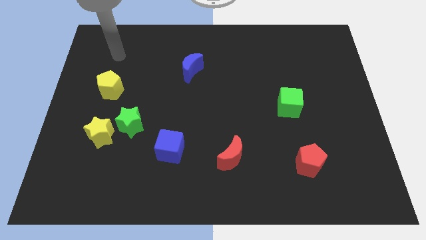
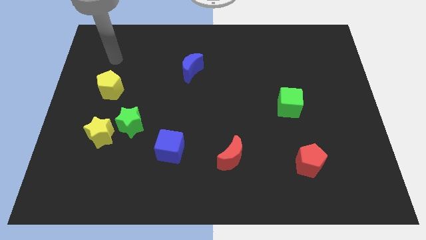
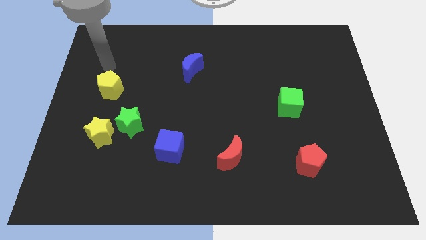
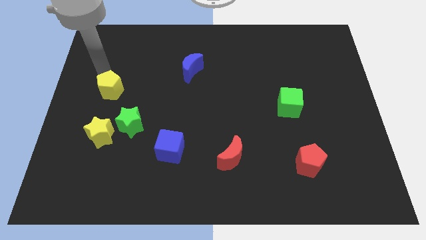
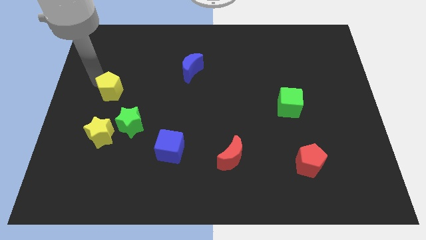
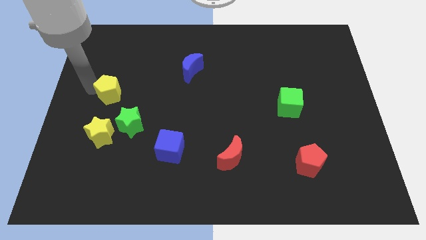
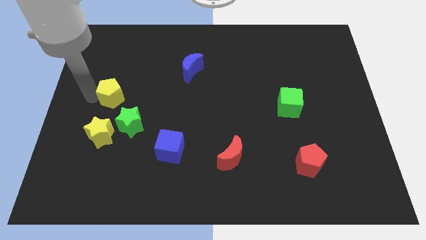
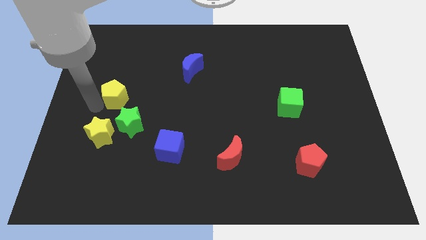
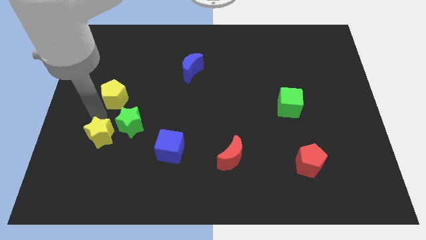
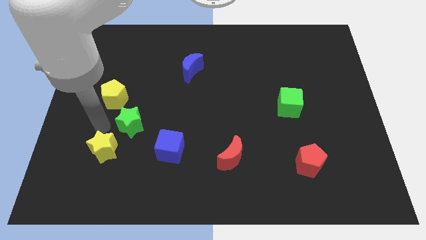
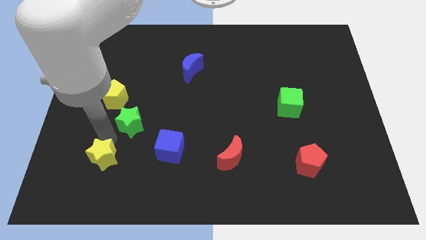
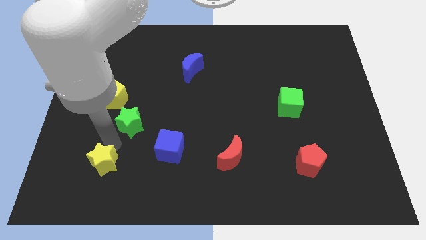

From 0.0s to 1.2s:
move the green star away from the yellow star

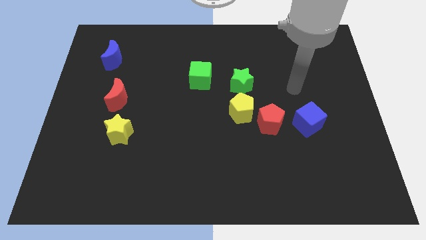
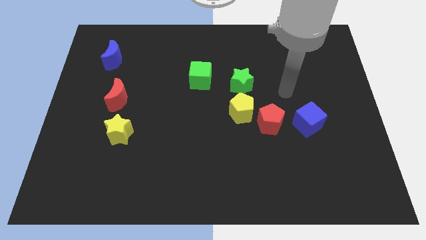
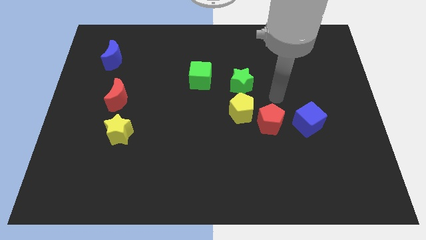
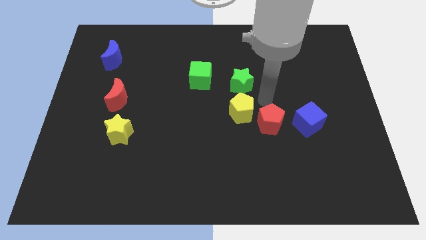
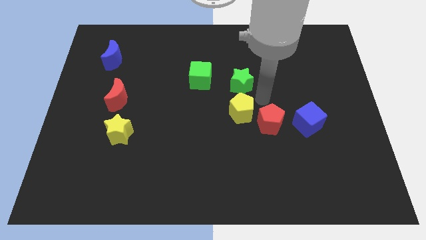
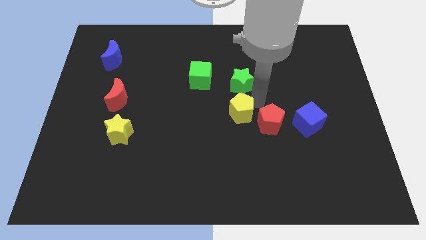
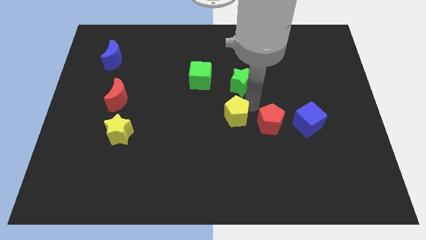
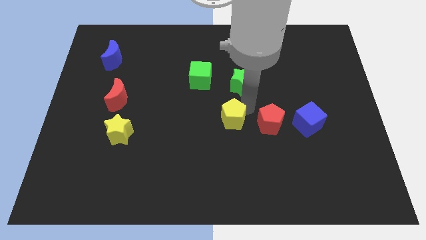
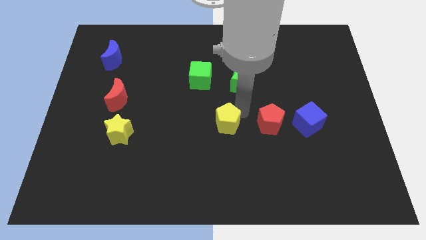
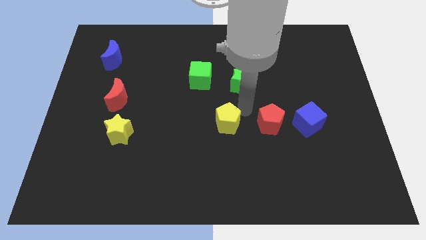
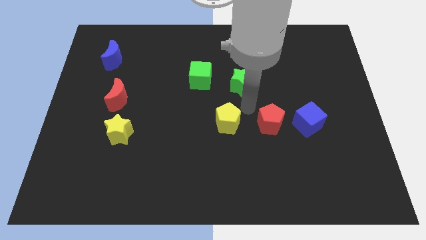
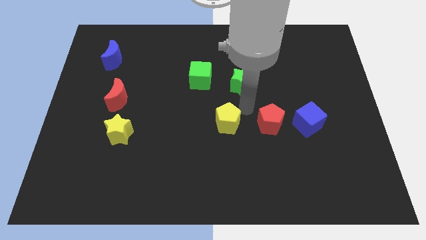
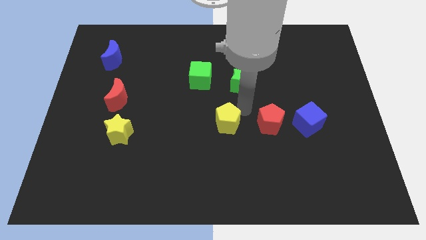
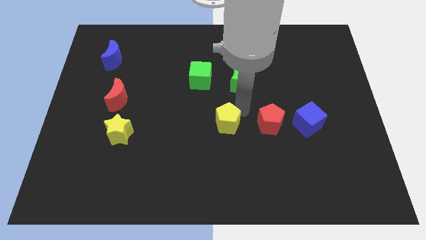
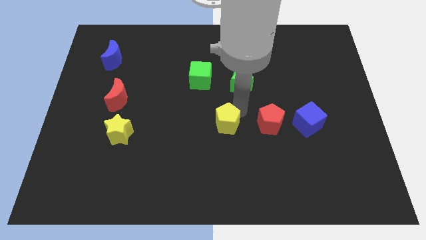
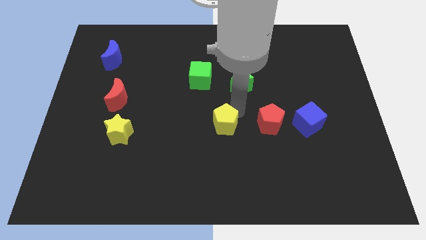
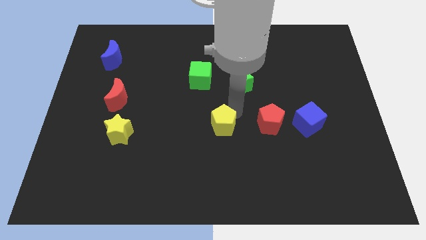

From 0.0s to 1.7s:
separate the yellow pentagon from the red pentagon and green star

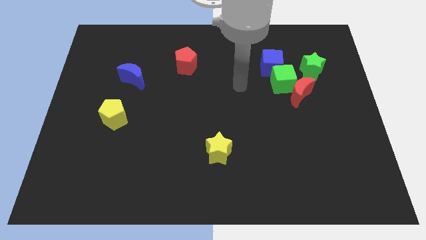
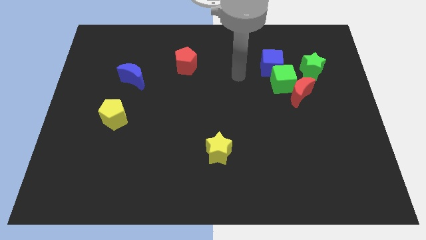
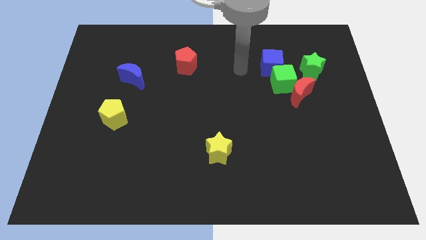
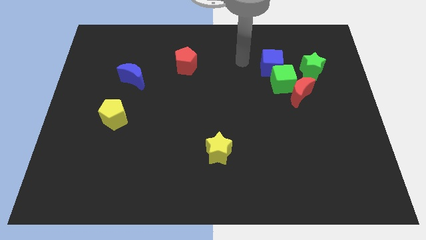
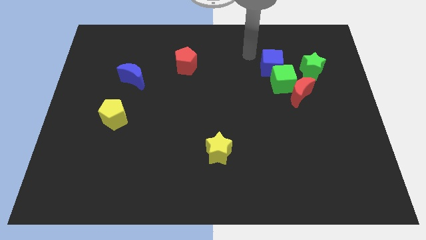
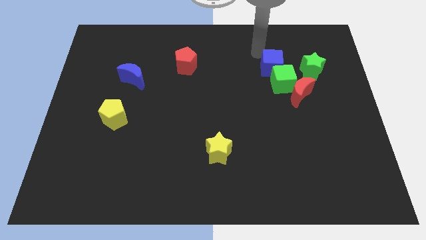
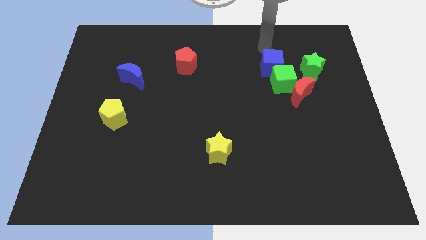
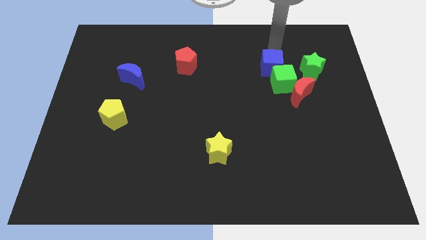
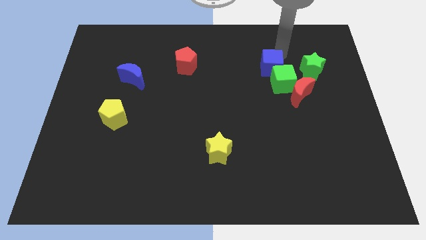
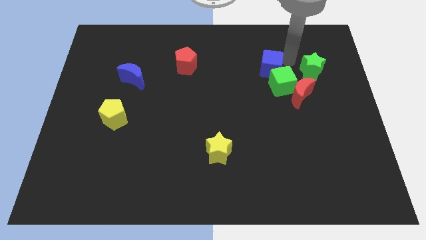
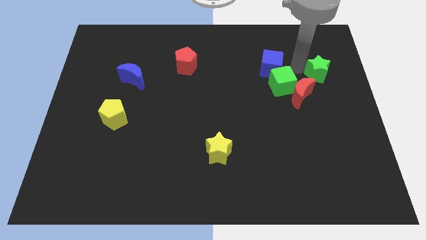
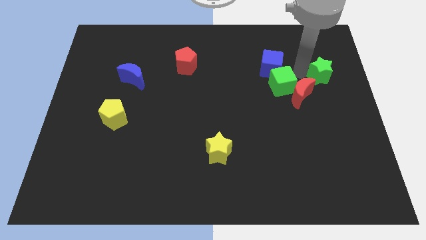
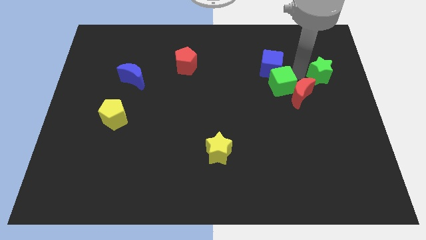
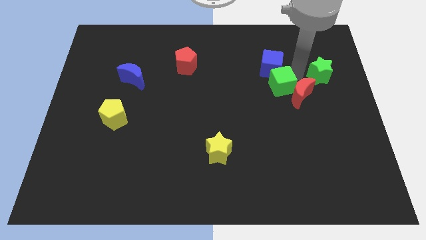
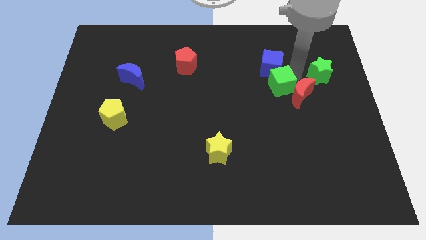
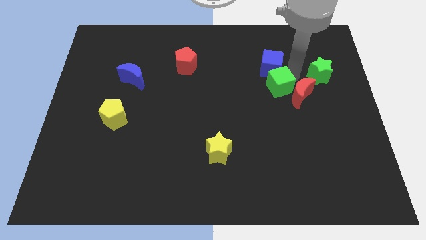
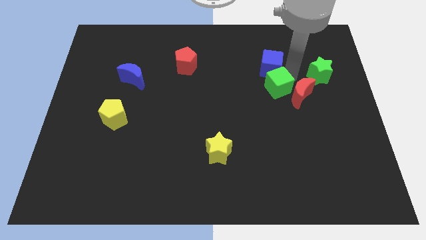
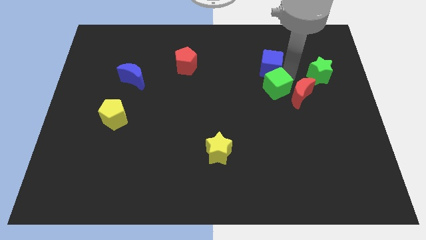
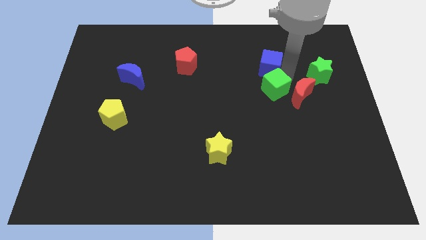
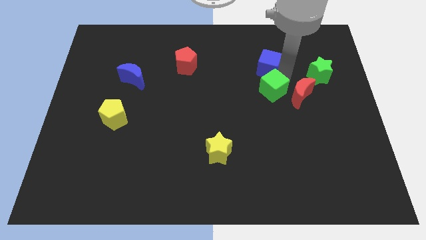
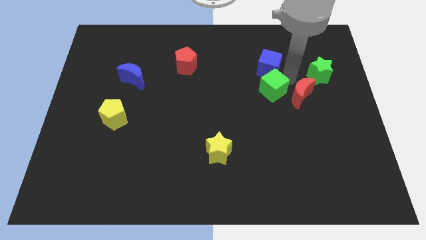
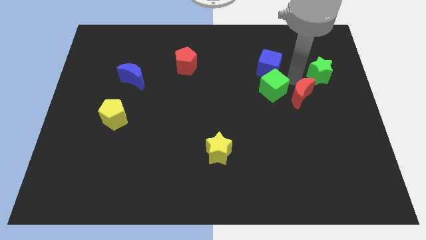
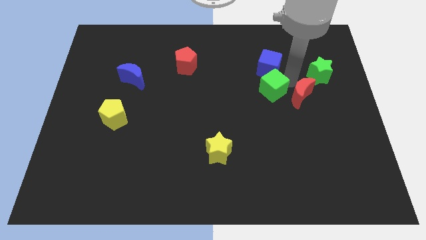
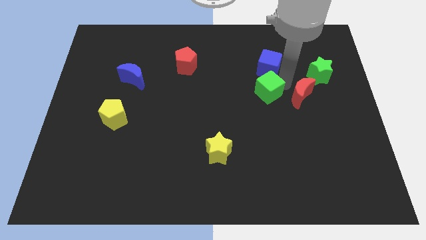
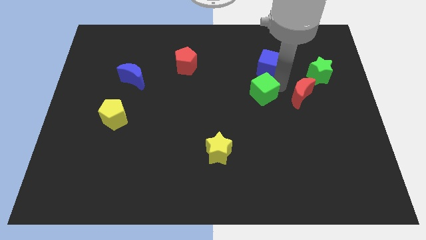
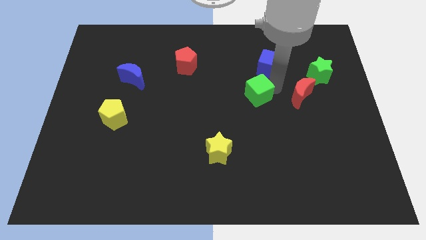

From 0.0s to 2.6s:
move the green cube away from the red moon, blue cube, and green star

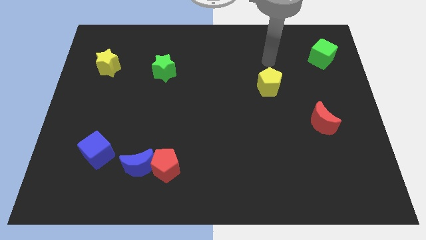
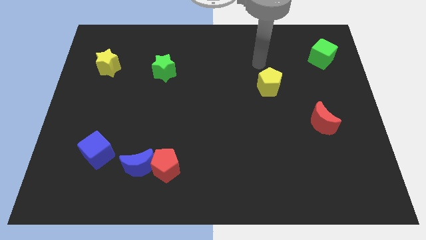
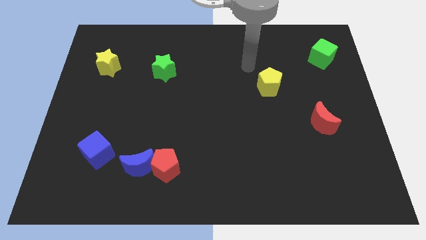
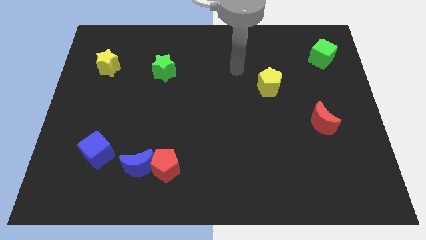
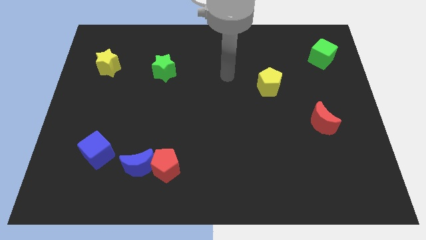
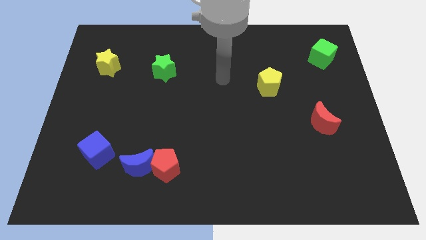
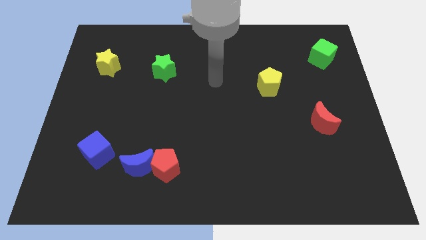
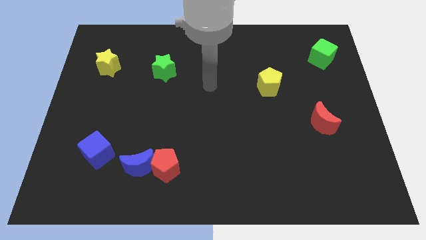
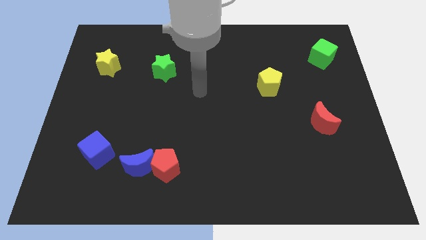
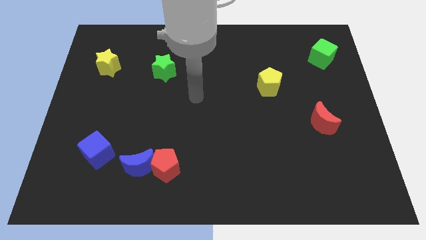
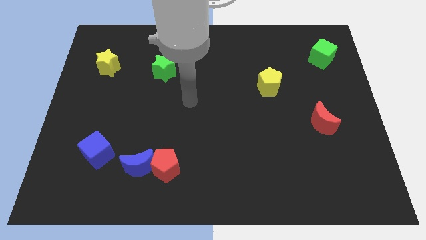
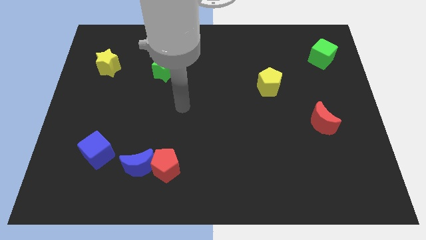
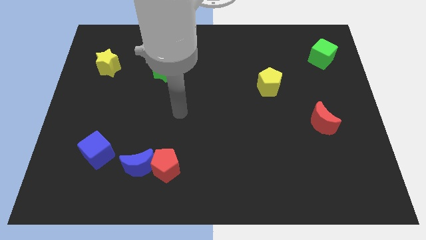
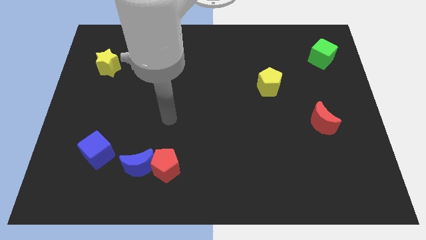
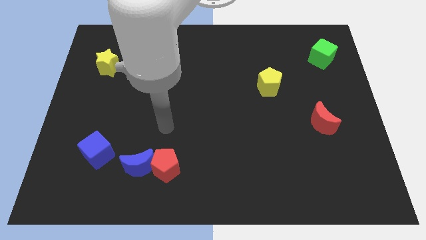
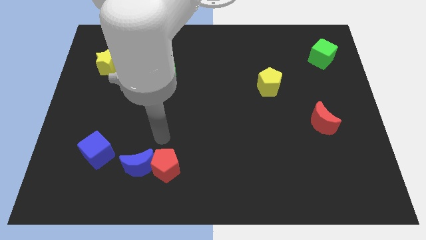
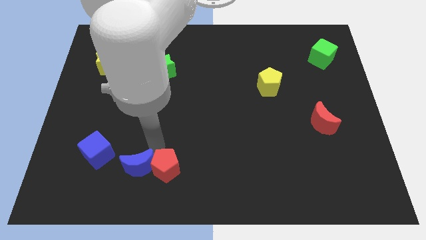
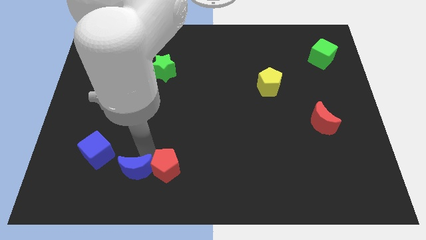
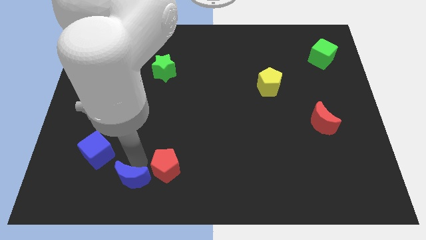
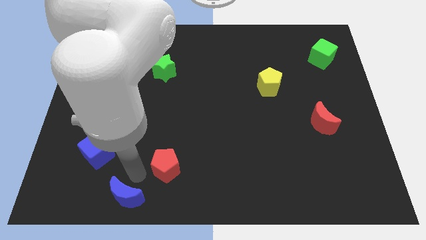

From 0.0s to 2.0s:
separate the red pentagon from the blue moon

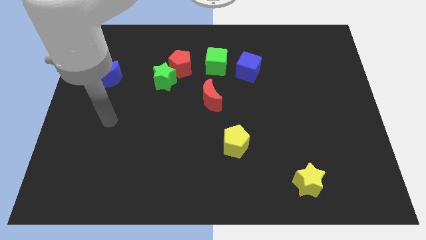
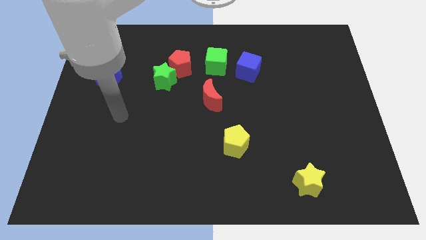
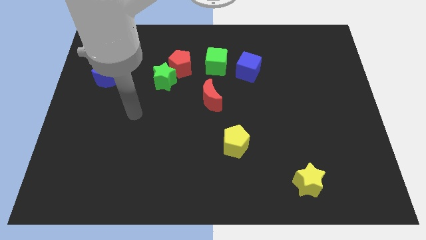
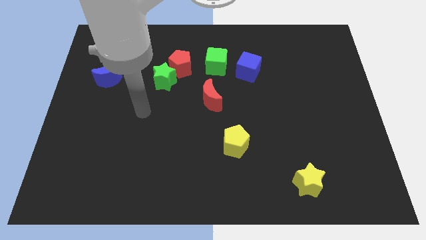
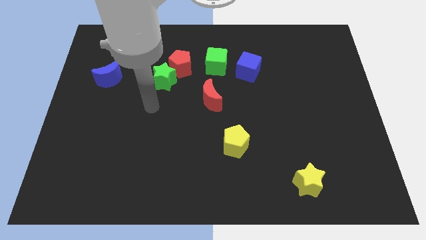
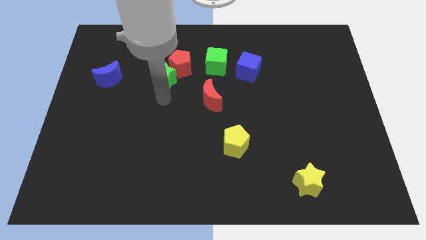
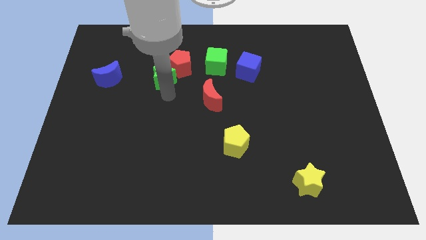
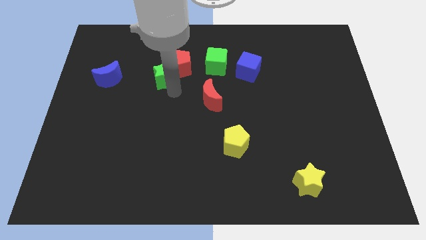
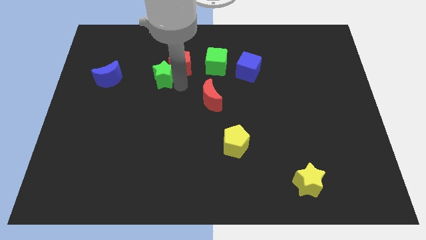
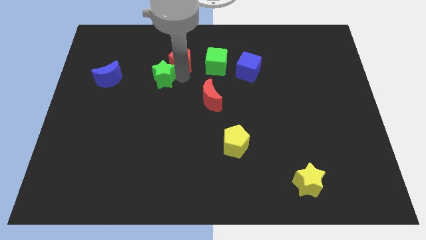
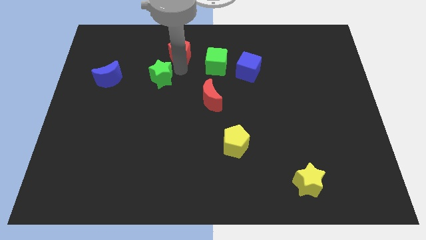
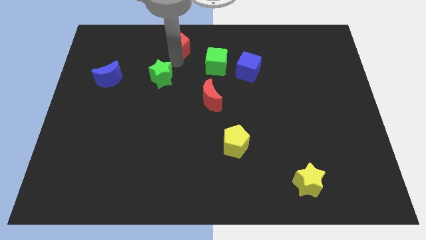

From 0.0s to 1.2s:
move the green star away from the red pentagon

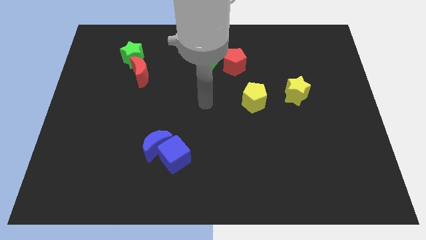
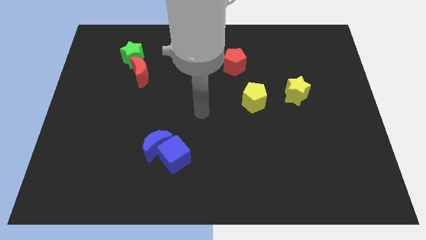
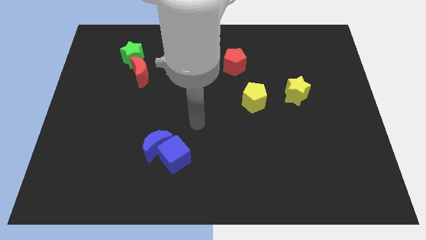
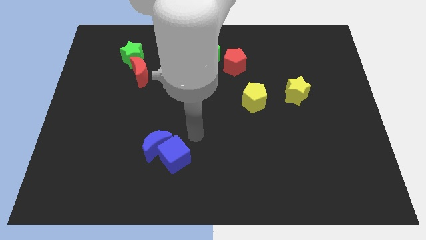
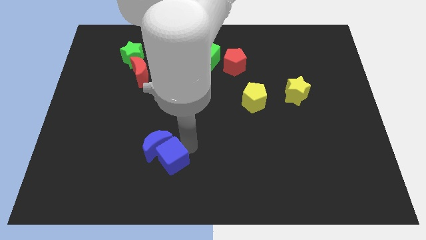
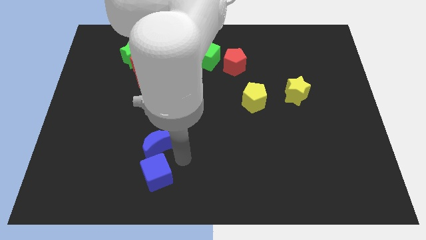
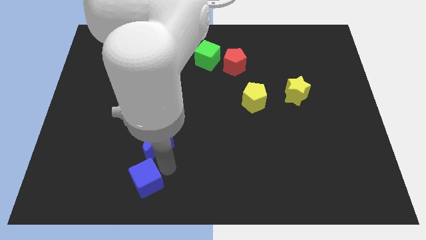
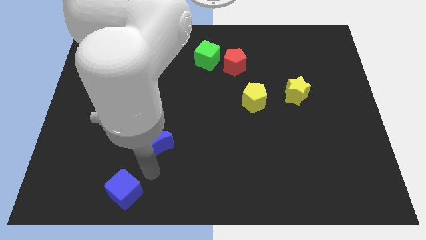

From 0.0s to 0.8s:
pull the blue moon apart from the blue cube
